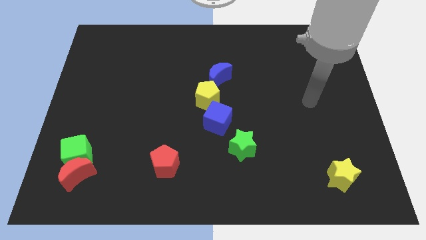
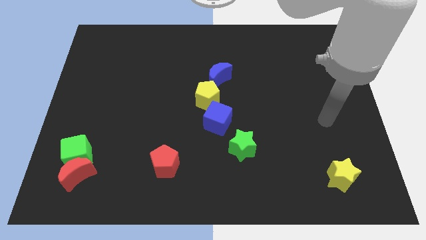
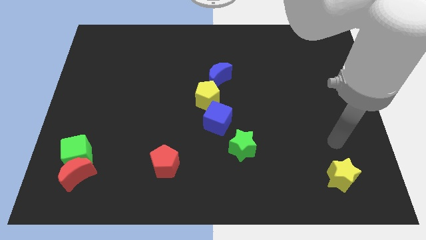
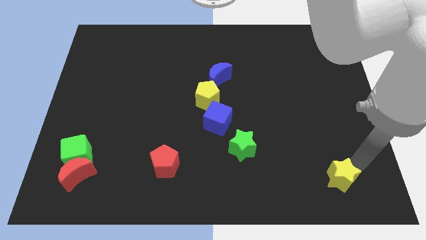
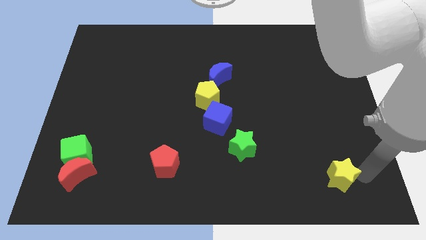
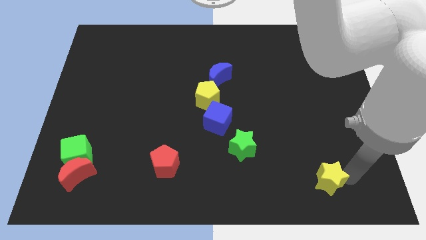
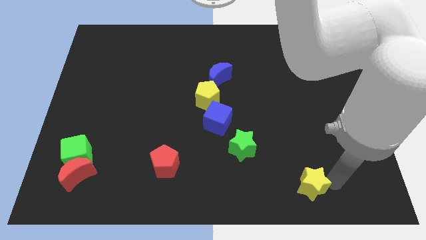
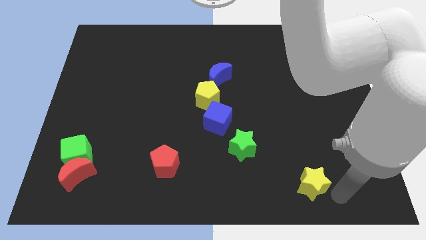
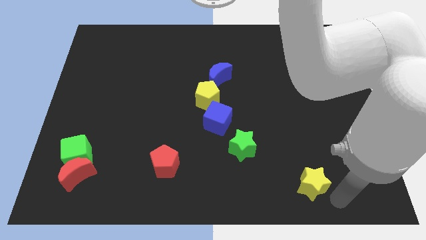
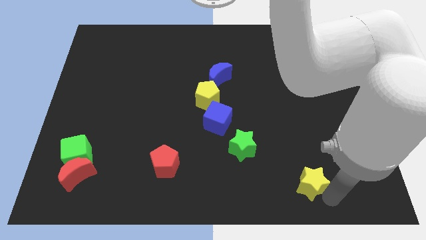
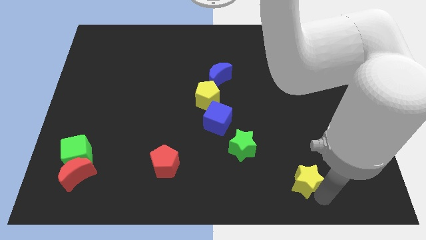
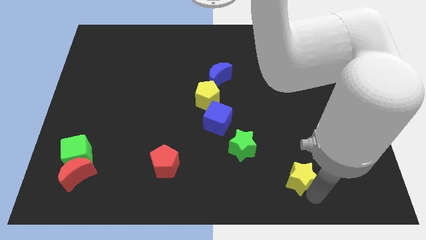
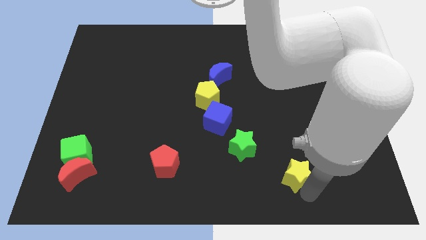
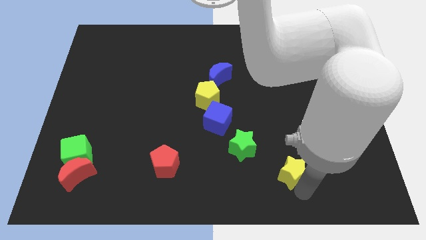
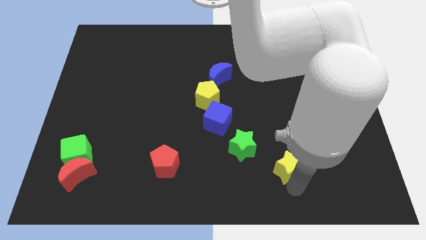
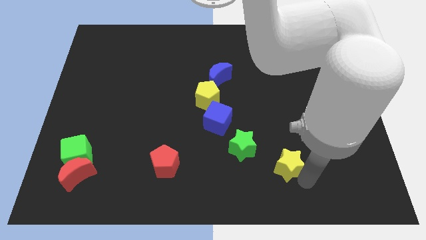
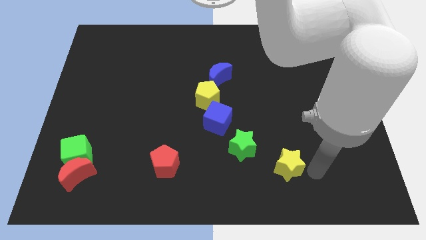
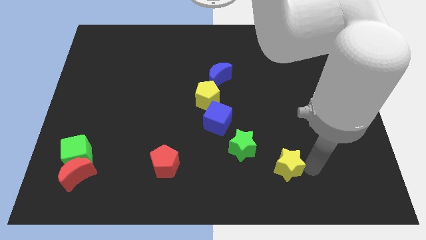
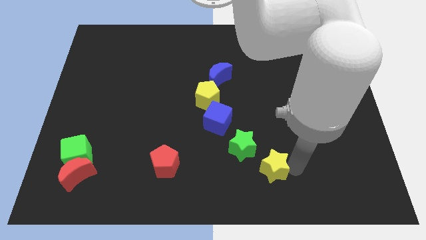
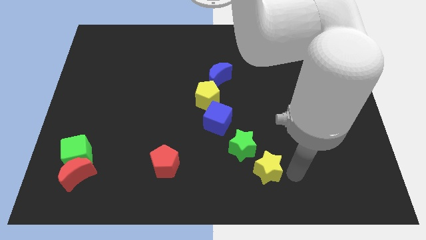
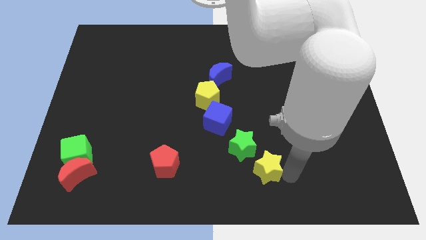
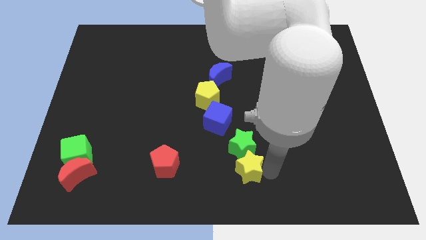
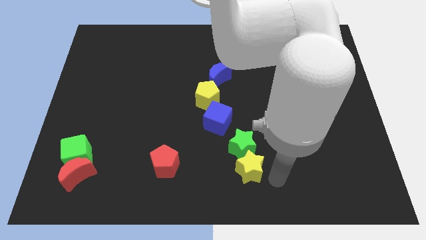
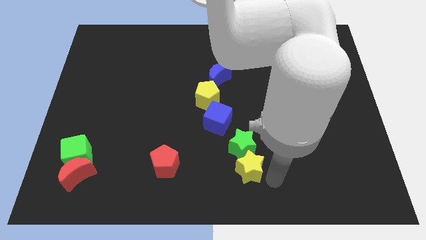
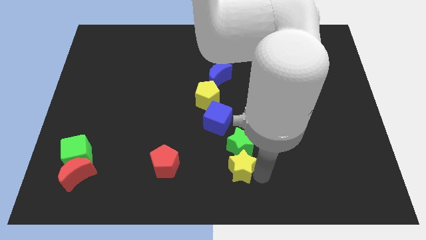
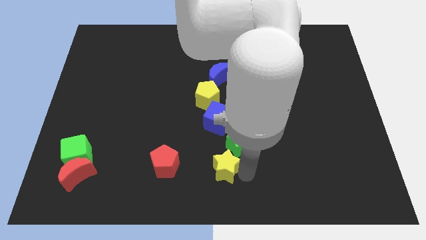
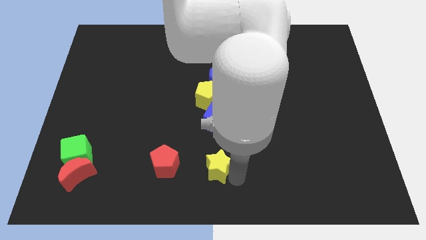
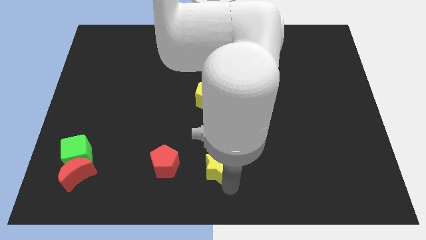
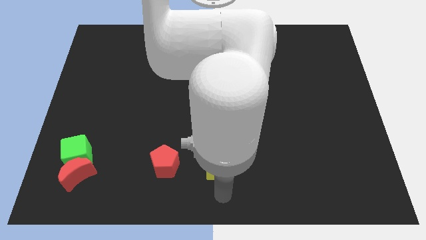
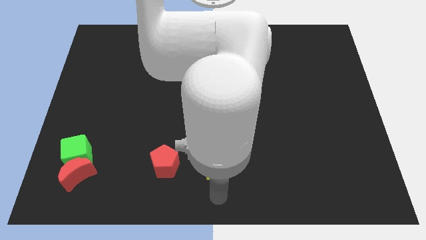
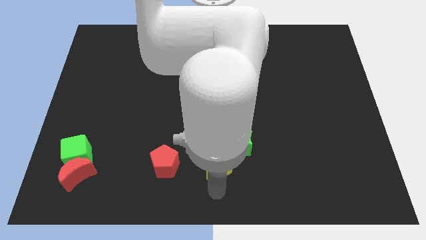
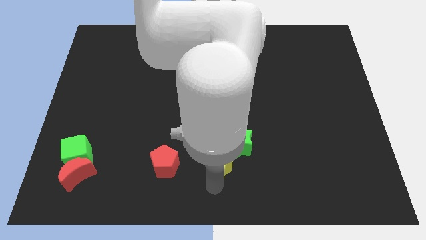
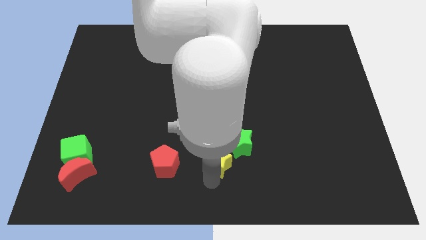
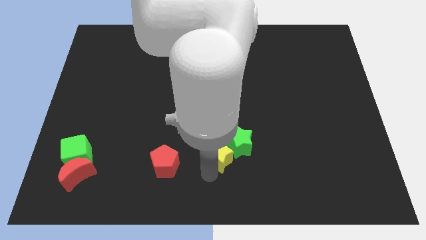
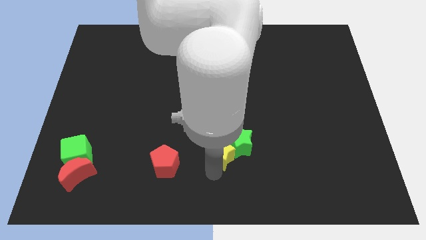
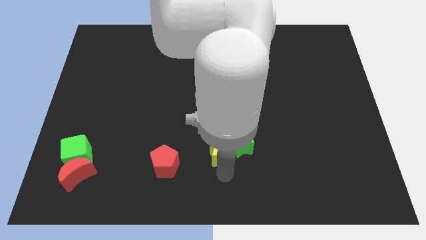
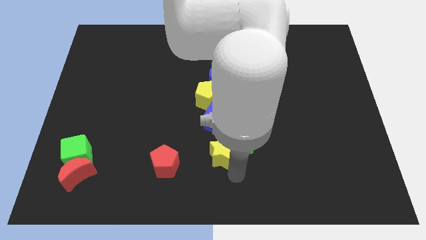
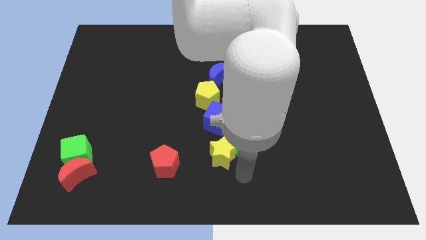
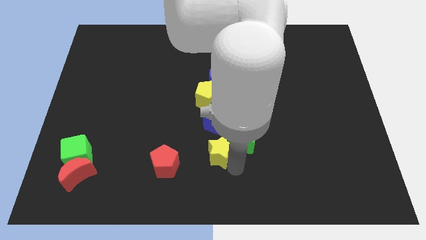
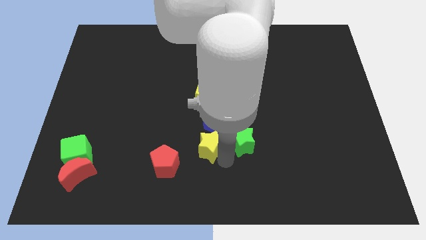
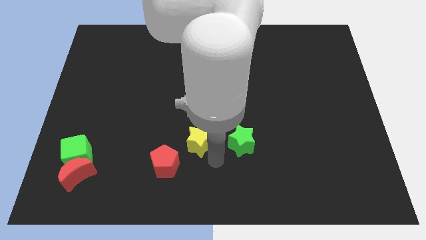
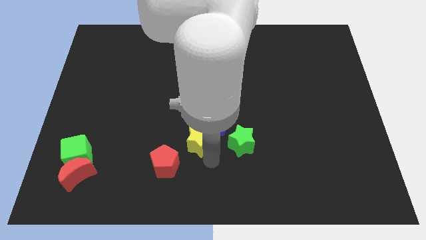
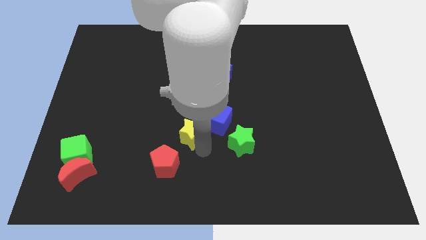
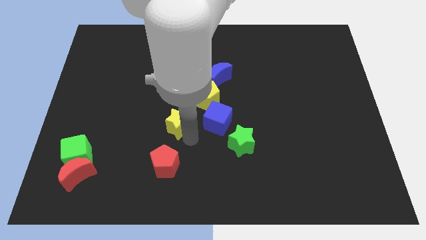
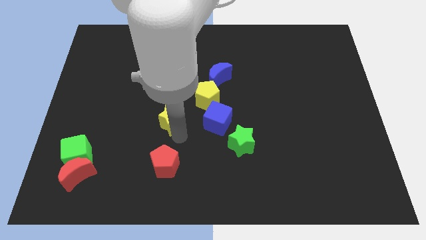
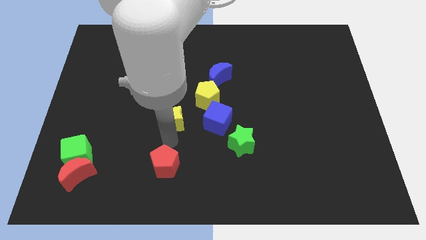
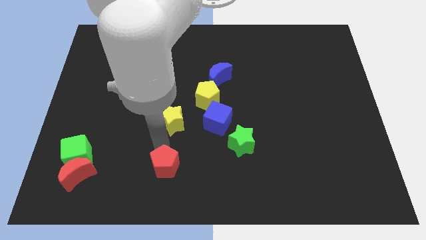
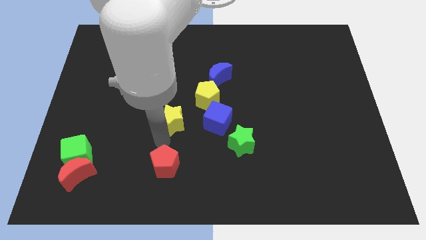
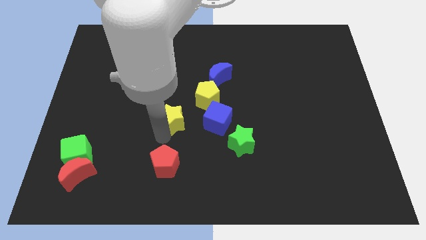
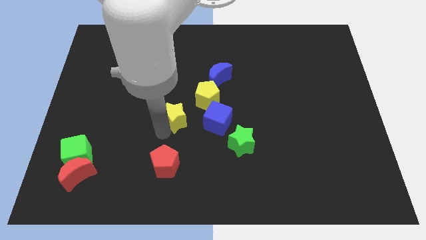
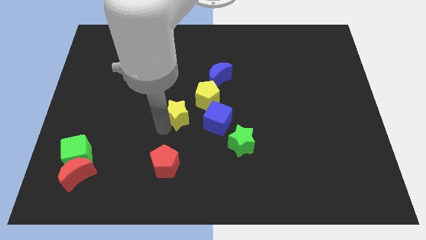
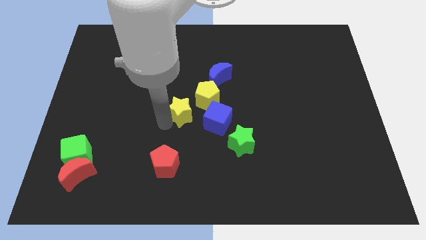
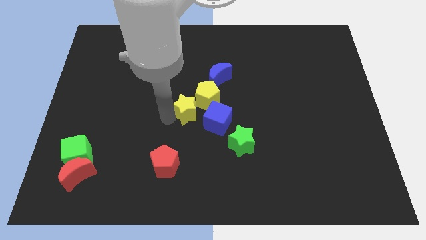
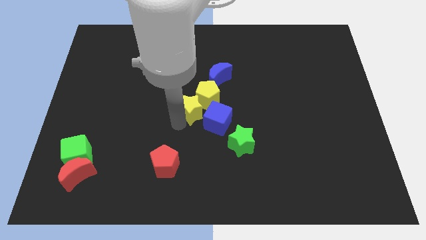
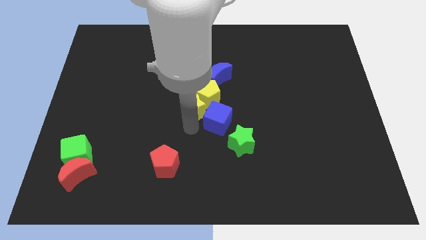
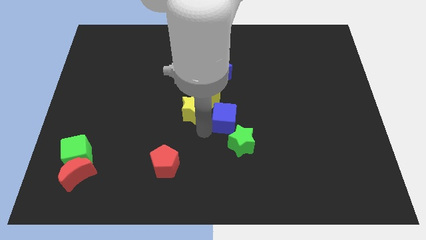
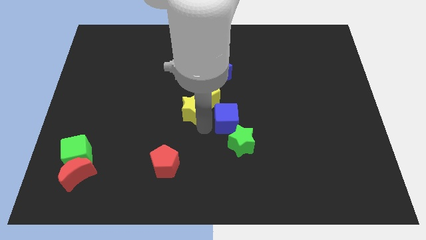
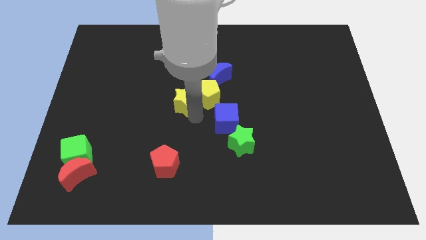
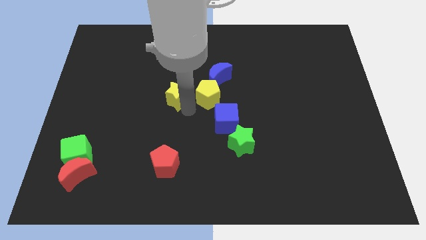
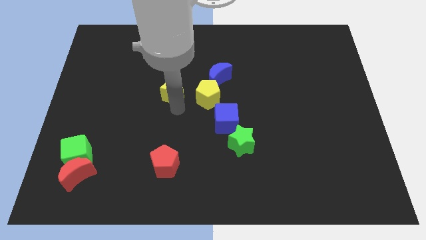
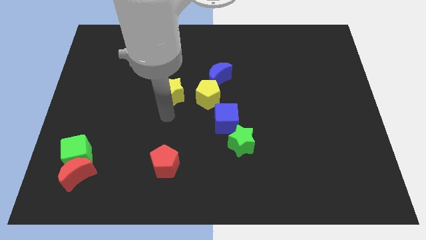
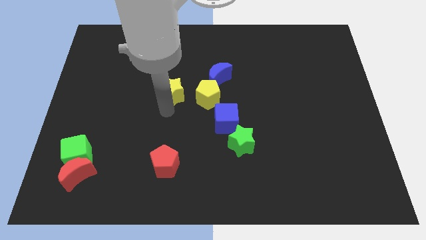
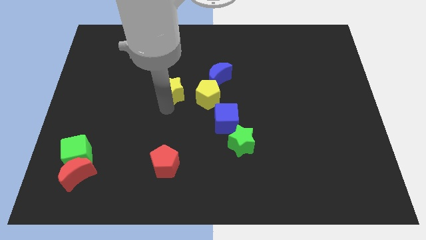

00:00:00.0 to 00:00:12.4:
push the yellow star to the left of the blue moon

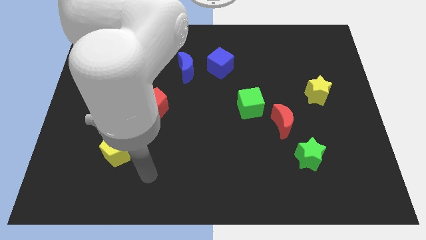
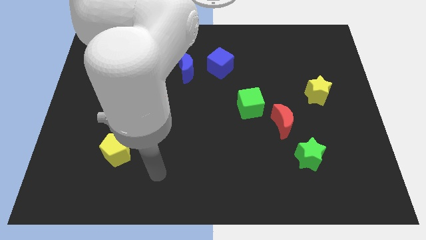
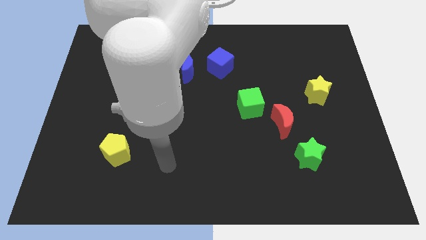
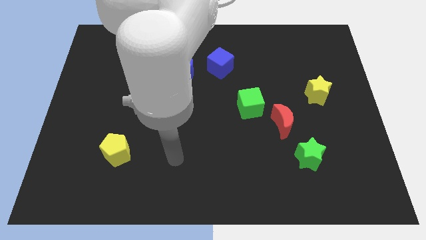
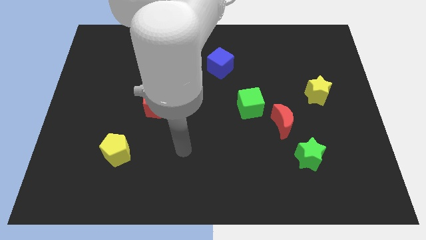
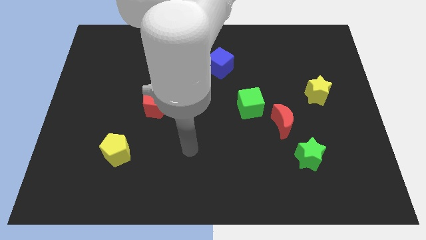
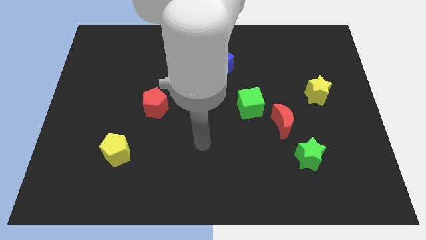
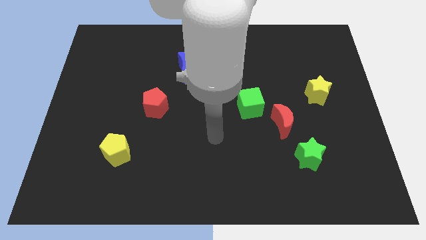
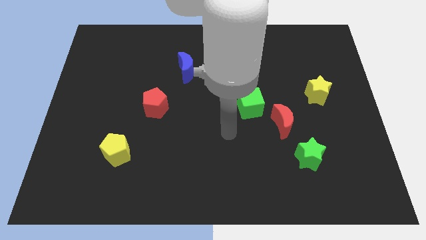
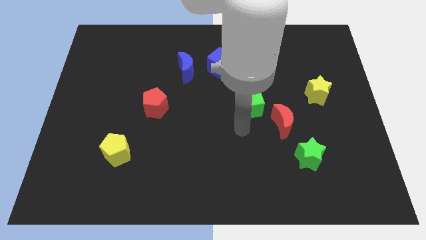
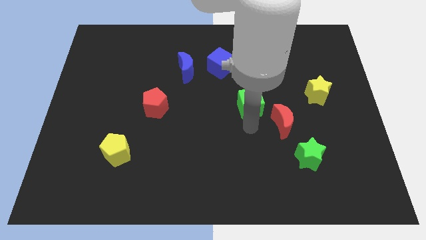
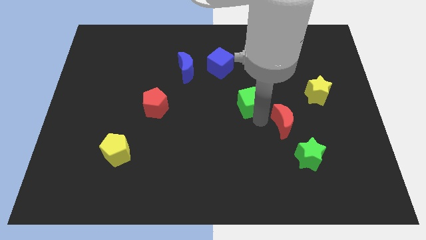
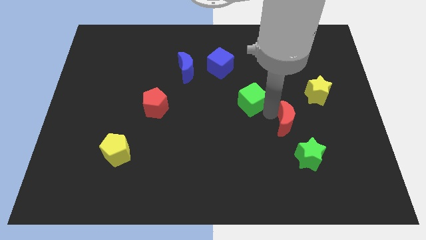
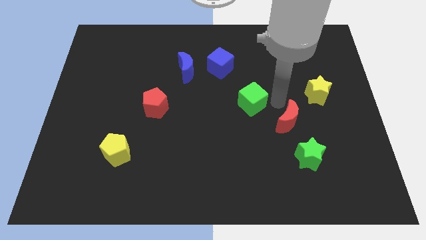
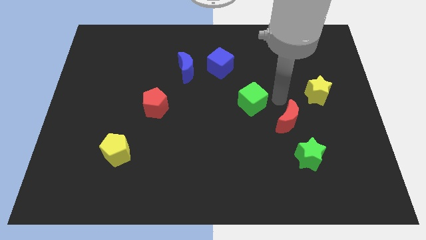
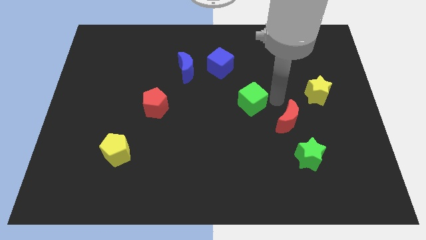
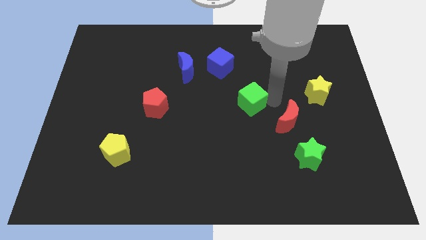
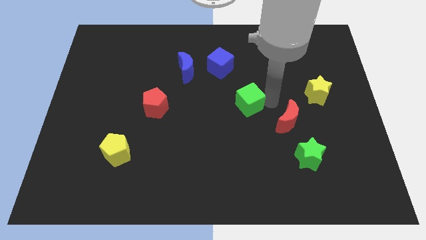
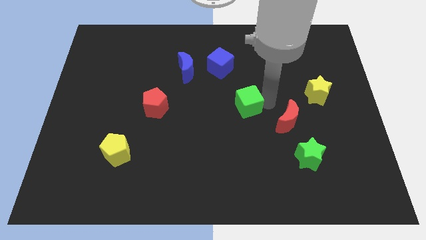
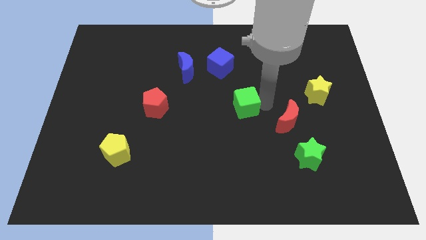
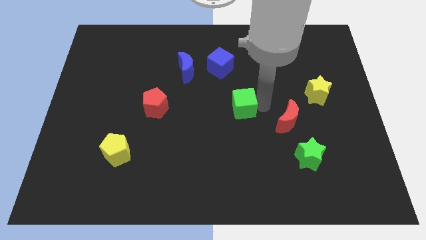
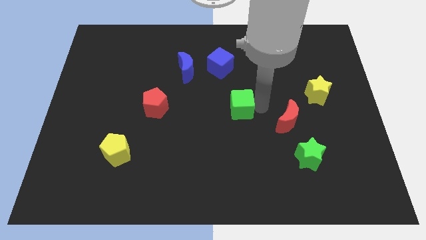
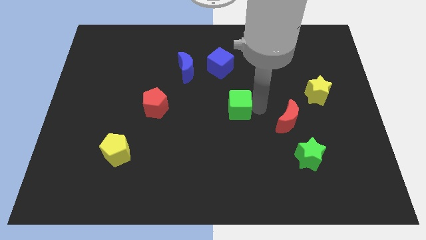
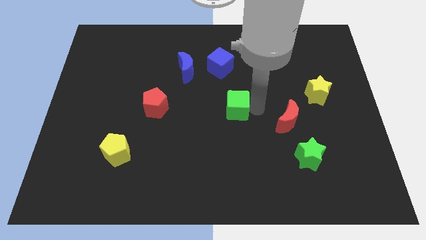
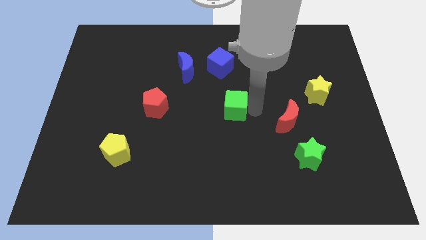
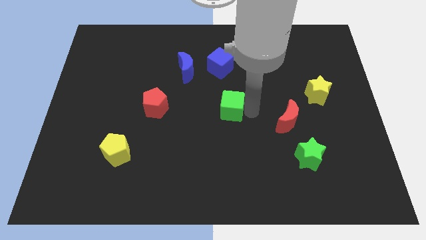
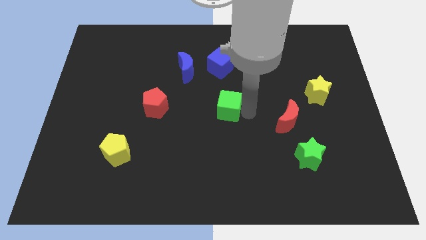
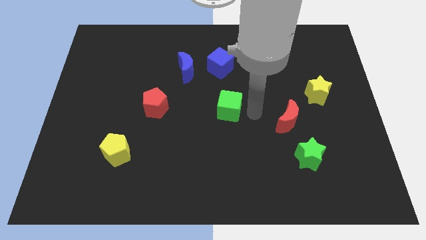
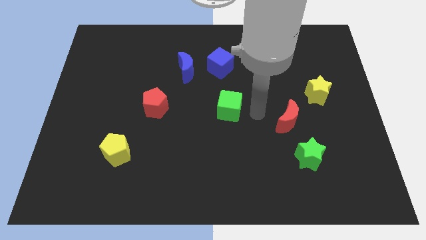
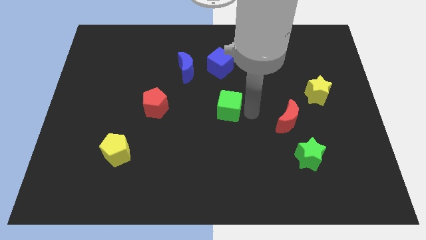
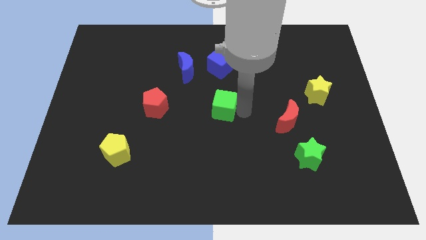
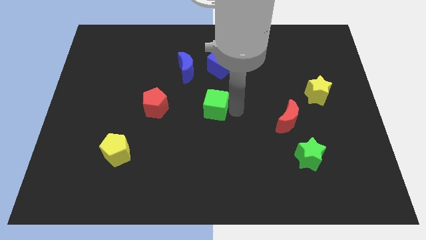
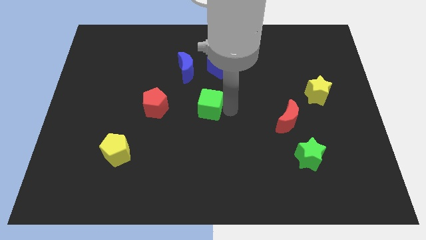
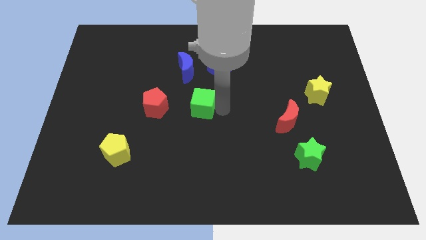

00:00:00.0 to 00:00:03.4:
slide the green cube to the bottom of the blue moon
